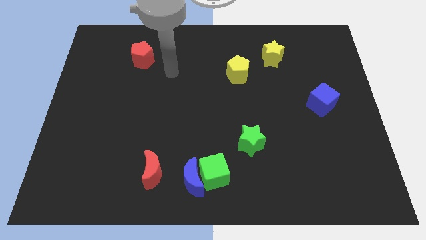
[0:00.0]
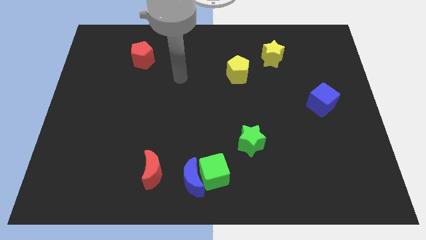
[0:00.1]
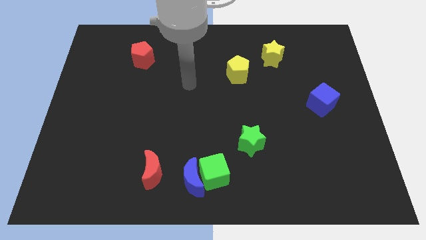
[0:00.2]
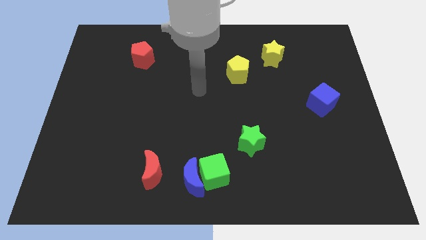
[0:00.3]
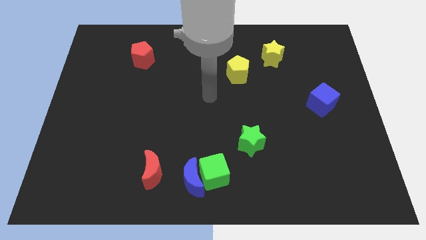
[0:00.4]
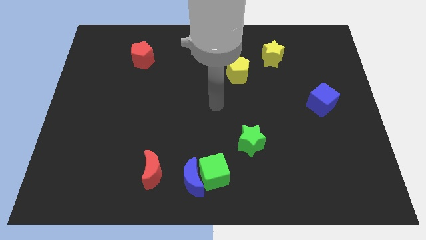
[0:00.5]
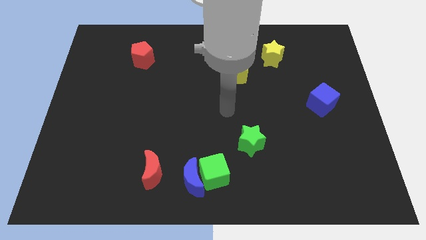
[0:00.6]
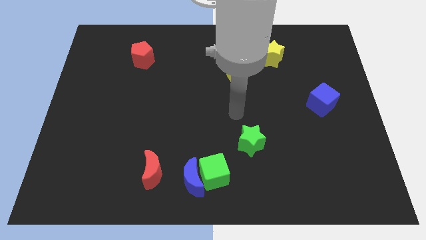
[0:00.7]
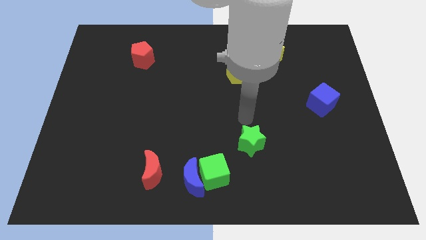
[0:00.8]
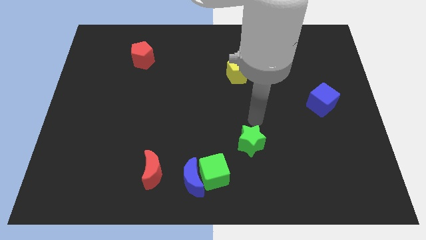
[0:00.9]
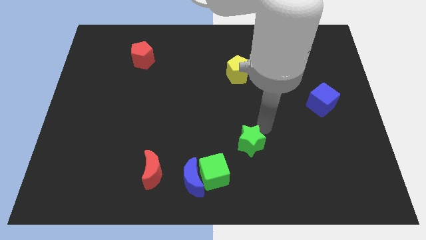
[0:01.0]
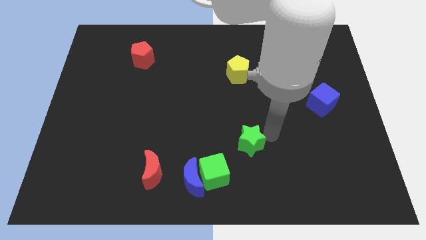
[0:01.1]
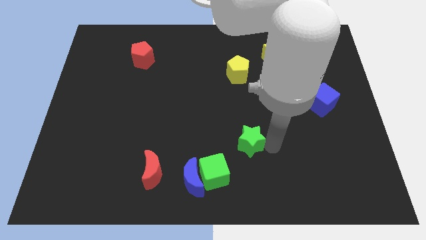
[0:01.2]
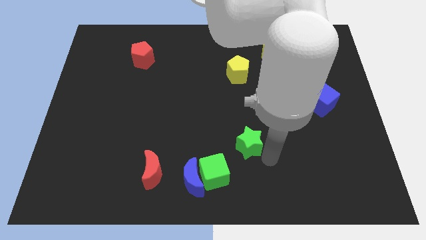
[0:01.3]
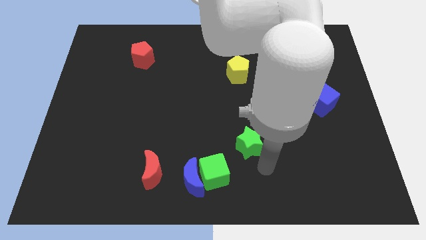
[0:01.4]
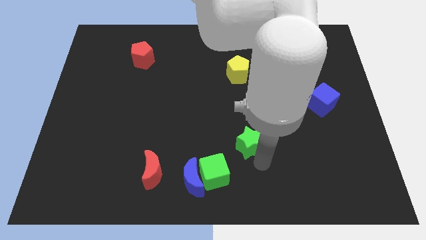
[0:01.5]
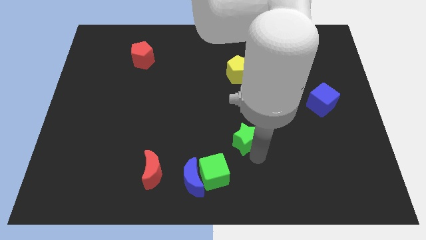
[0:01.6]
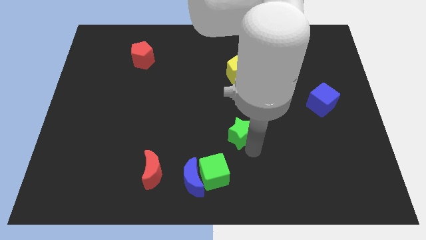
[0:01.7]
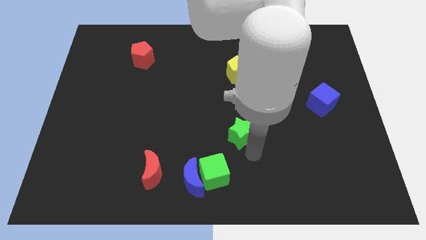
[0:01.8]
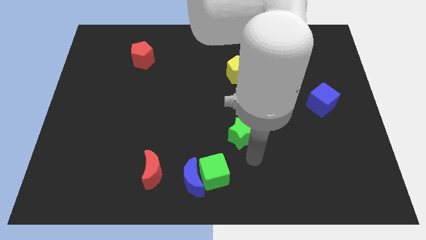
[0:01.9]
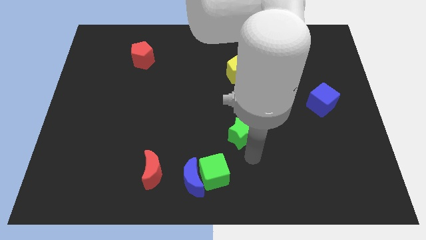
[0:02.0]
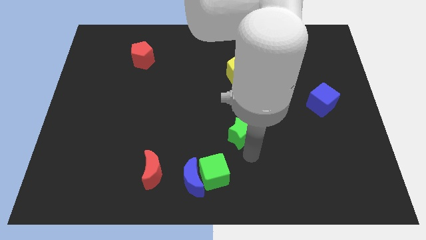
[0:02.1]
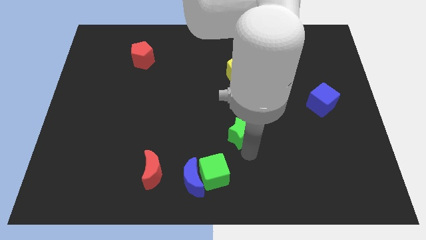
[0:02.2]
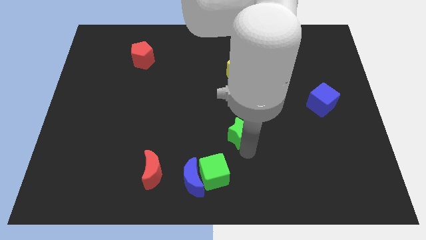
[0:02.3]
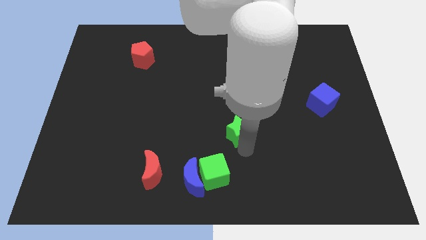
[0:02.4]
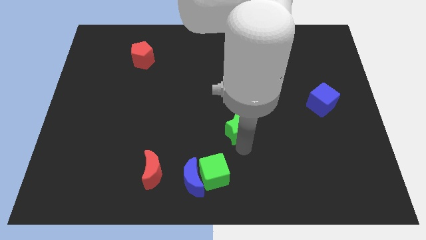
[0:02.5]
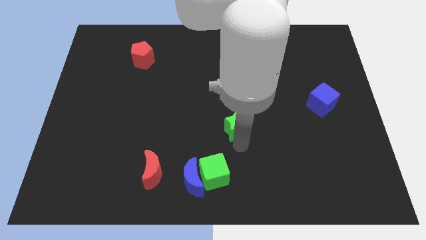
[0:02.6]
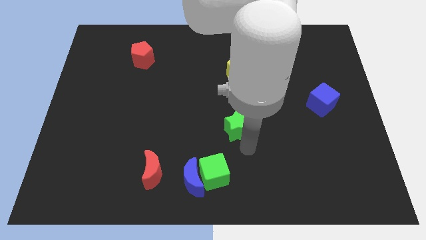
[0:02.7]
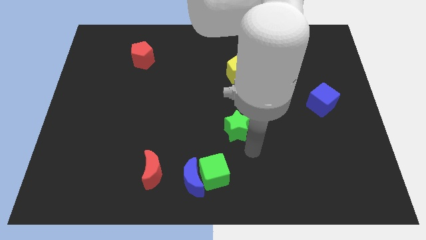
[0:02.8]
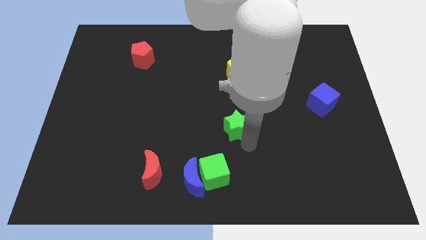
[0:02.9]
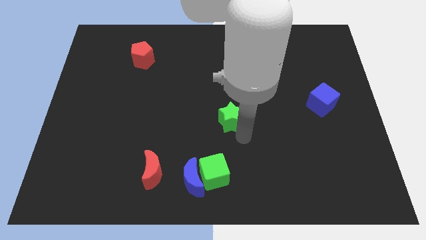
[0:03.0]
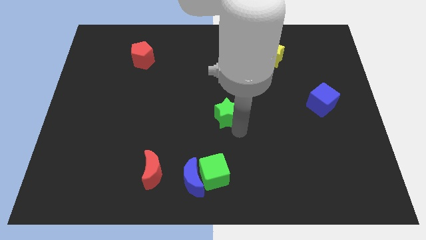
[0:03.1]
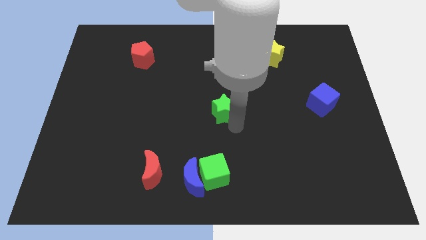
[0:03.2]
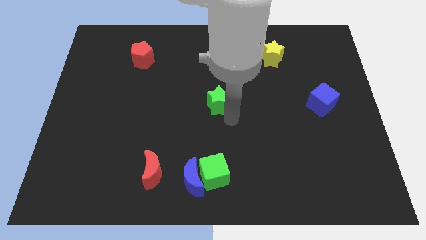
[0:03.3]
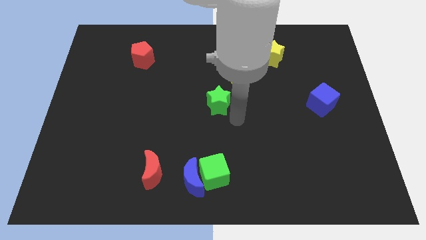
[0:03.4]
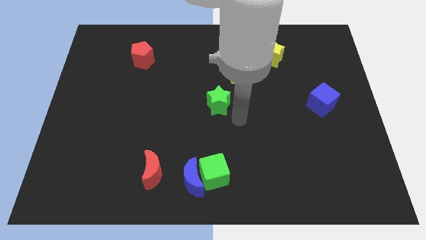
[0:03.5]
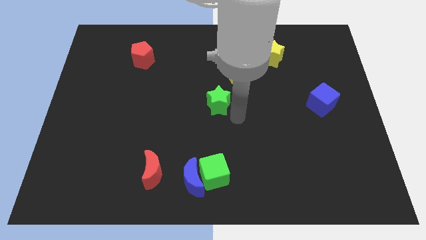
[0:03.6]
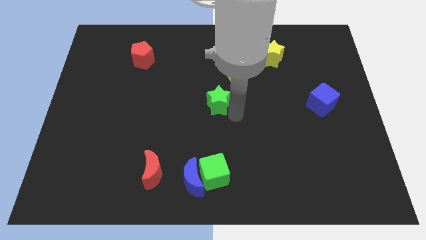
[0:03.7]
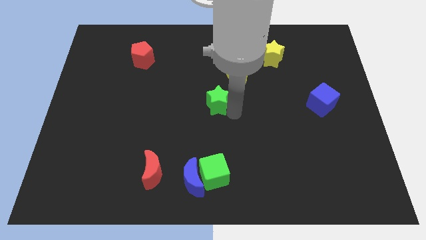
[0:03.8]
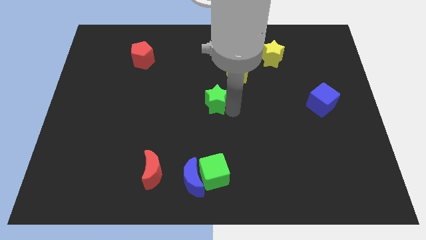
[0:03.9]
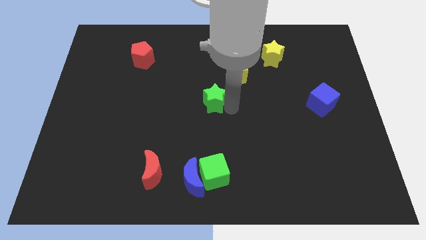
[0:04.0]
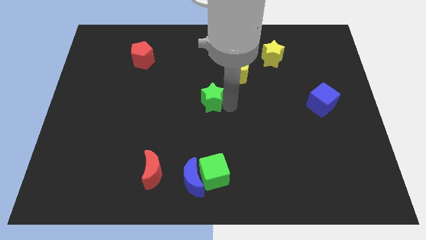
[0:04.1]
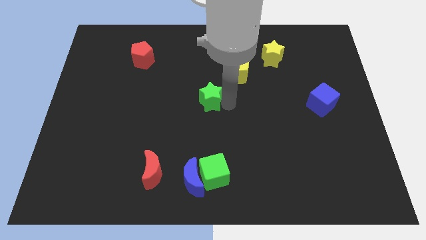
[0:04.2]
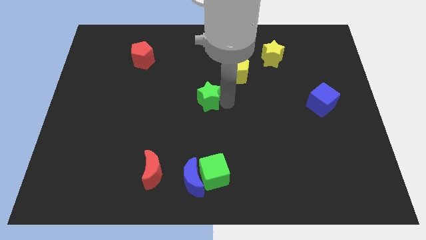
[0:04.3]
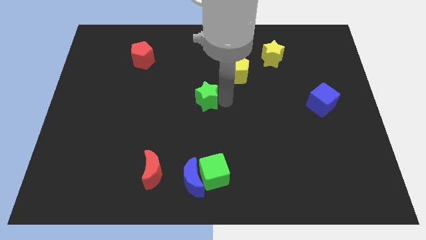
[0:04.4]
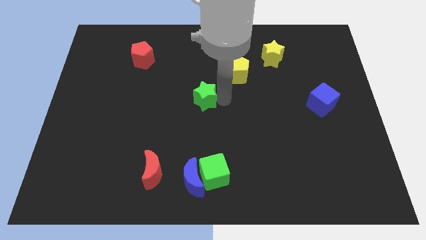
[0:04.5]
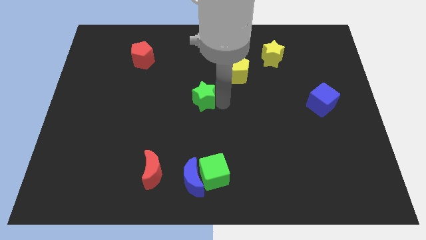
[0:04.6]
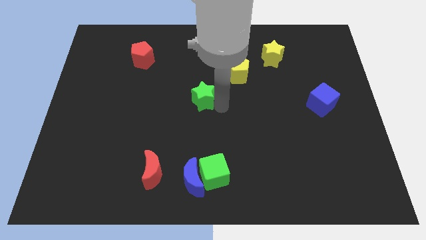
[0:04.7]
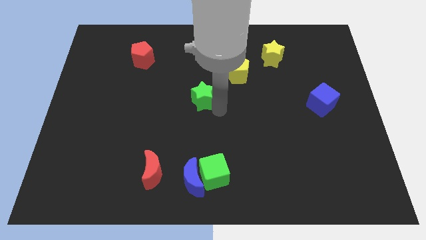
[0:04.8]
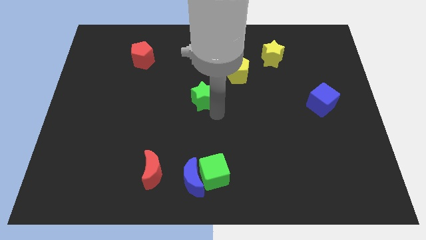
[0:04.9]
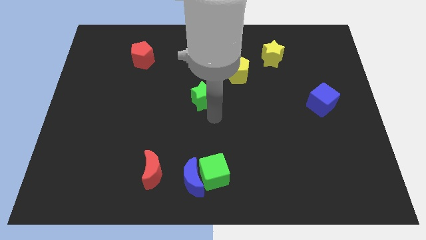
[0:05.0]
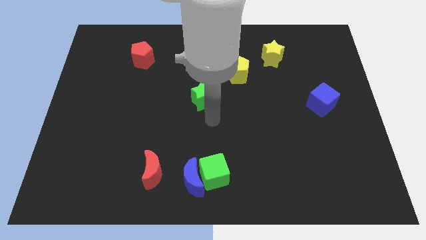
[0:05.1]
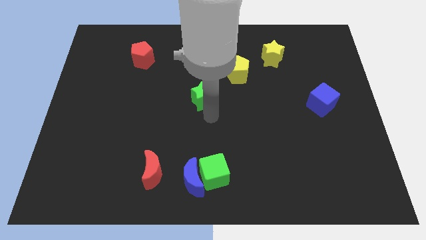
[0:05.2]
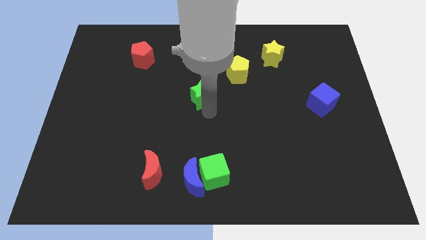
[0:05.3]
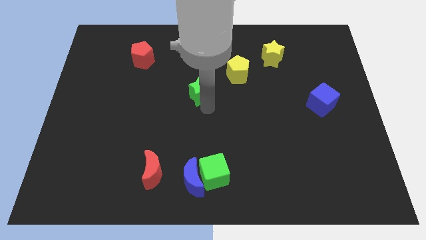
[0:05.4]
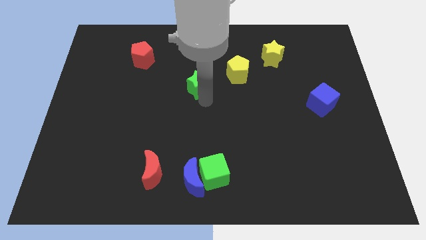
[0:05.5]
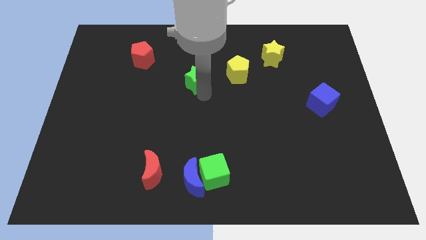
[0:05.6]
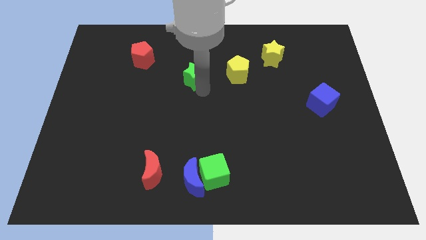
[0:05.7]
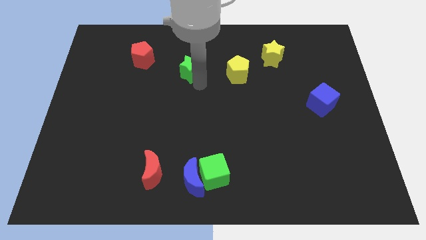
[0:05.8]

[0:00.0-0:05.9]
push the green star to the right of the red pentagon

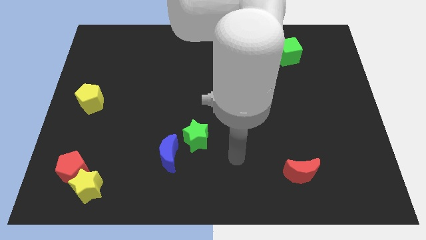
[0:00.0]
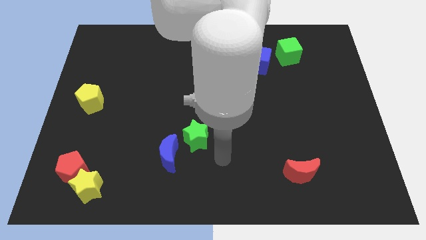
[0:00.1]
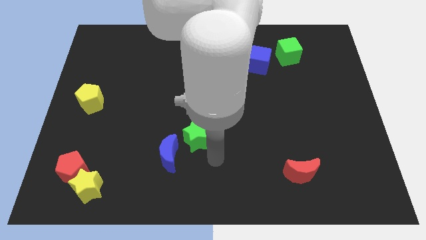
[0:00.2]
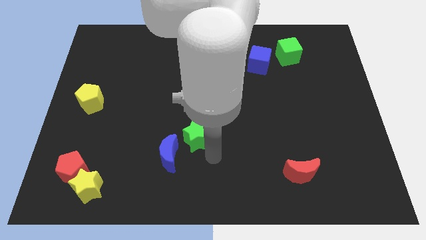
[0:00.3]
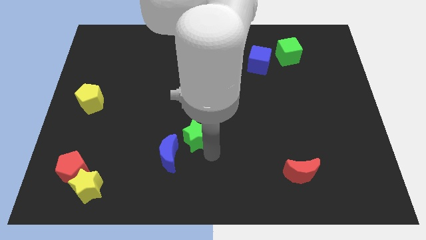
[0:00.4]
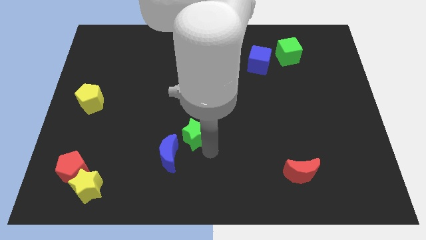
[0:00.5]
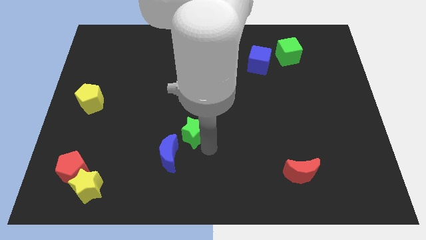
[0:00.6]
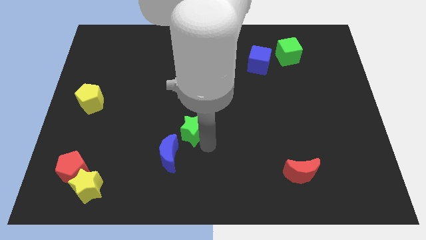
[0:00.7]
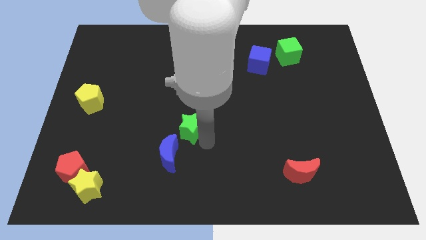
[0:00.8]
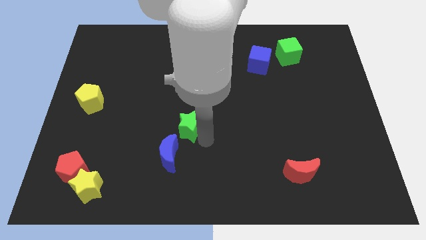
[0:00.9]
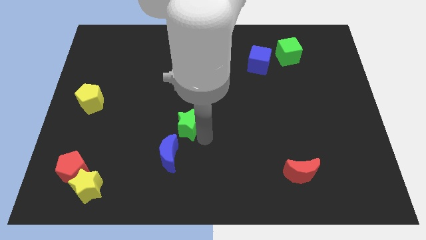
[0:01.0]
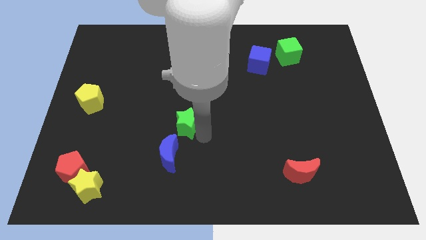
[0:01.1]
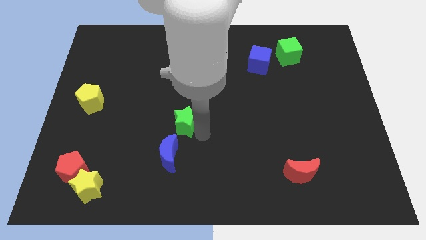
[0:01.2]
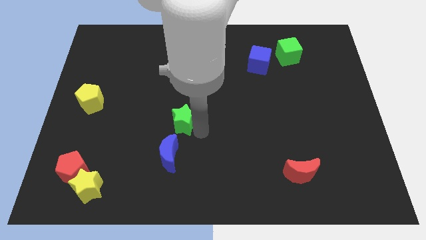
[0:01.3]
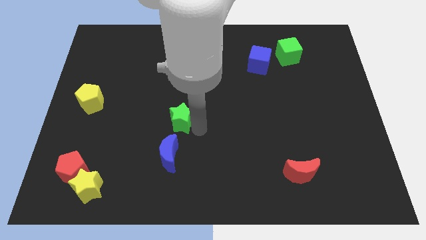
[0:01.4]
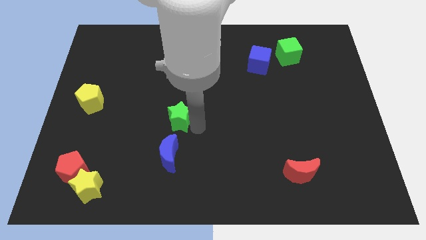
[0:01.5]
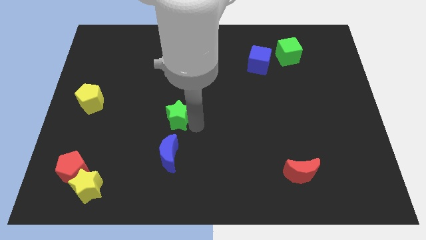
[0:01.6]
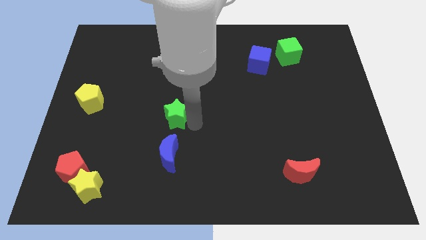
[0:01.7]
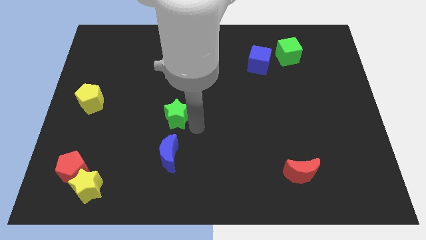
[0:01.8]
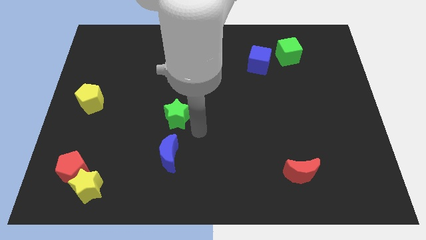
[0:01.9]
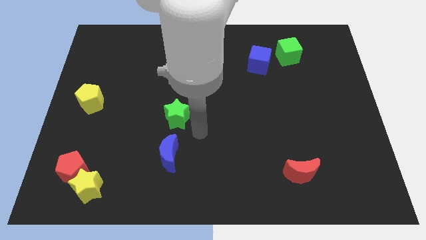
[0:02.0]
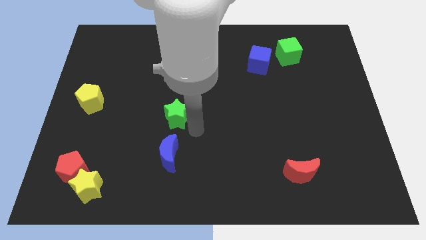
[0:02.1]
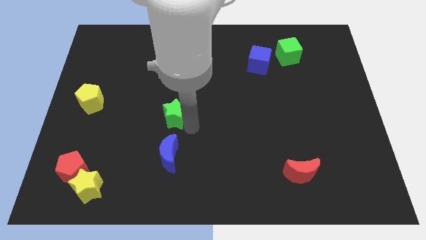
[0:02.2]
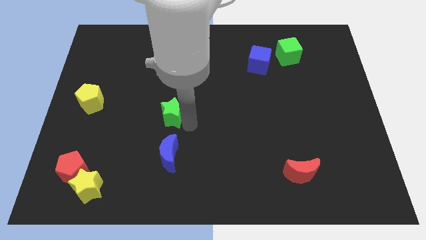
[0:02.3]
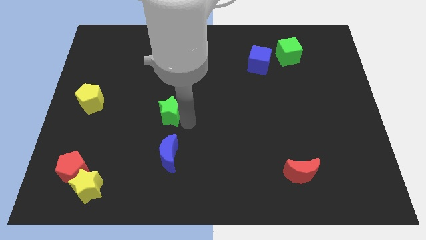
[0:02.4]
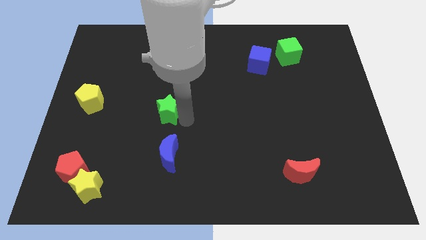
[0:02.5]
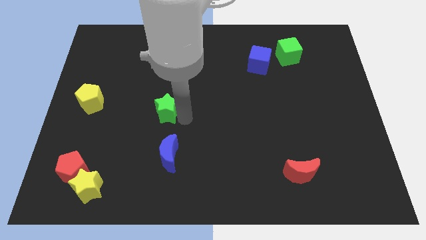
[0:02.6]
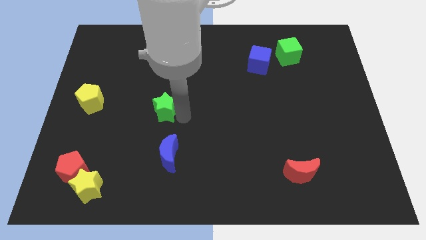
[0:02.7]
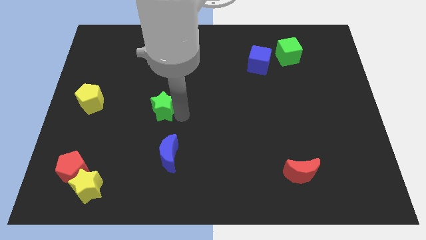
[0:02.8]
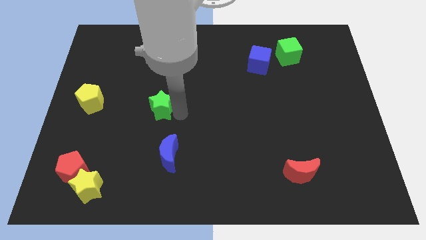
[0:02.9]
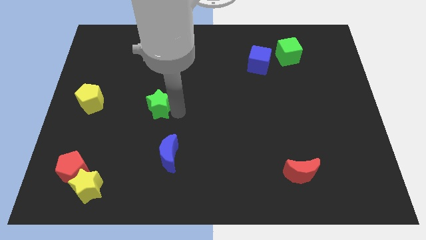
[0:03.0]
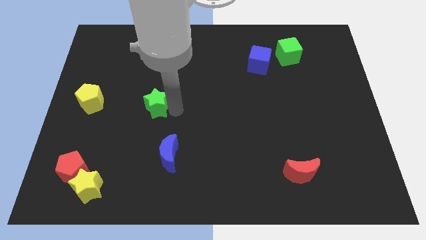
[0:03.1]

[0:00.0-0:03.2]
put the green star to the right of the yellow pentagon
